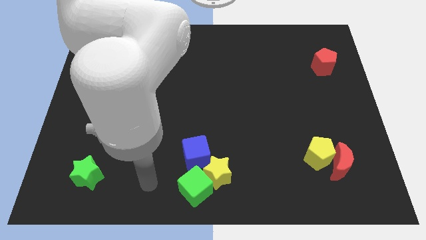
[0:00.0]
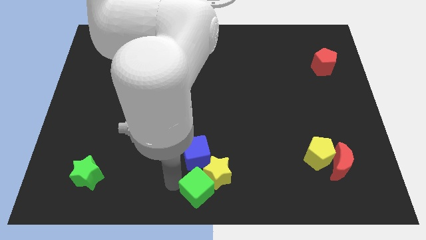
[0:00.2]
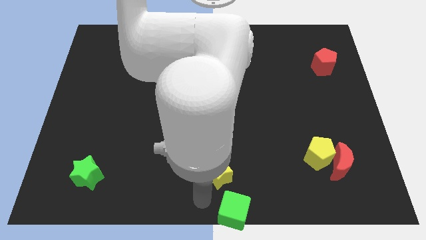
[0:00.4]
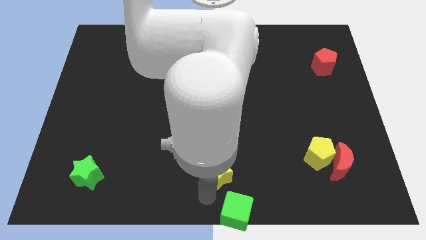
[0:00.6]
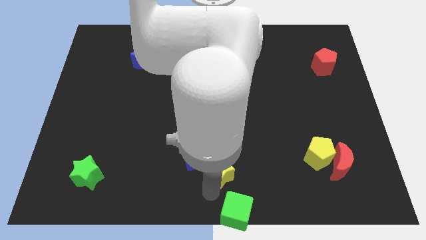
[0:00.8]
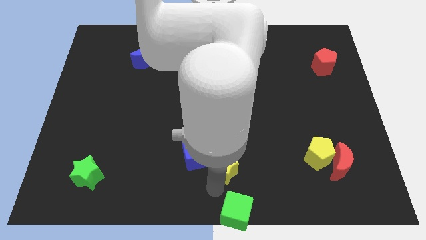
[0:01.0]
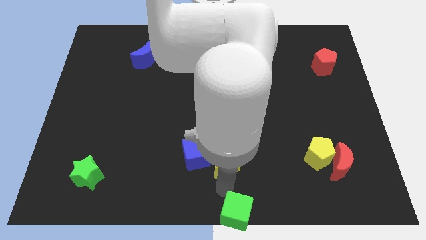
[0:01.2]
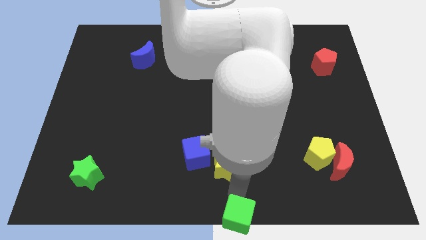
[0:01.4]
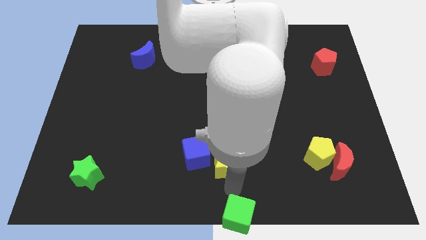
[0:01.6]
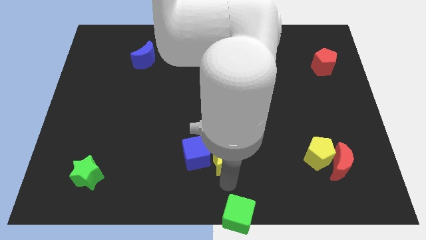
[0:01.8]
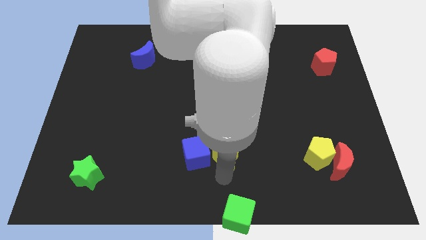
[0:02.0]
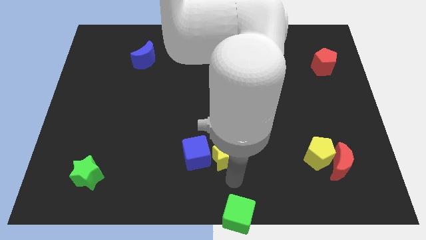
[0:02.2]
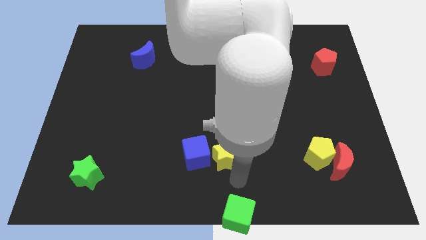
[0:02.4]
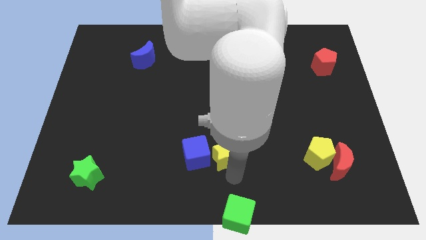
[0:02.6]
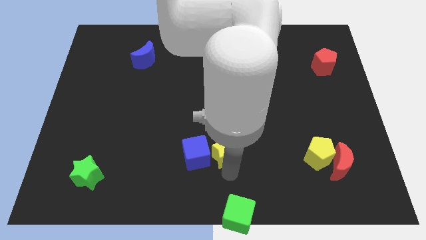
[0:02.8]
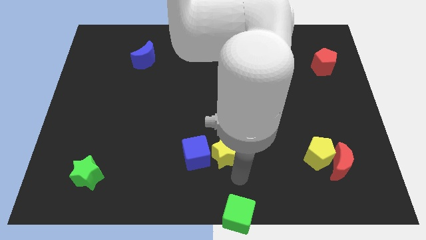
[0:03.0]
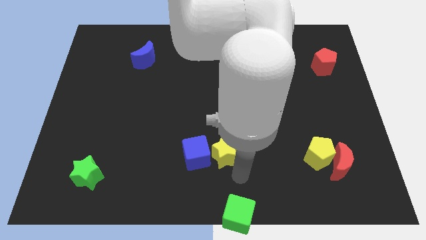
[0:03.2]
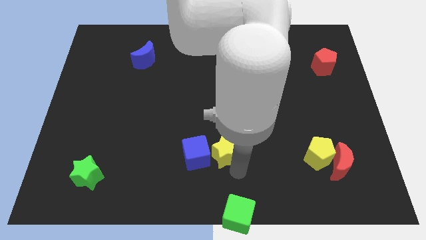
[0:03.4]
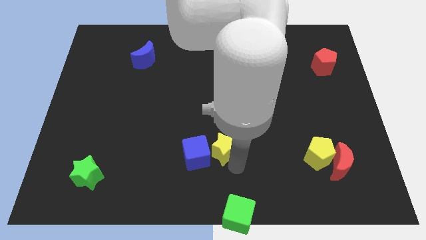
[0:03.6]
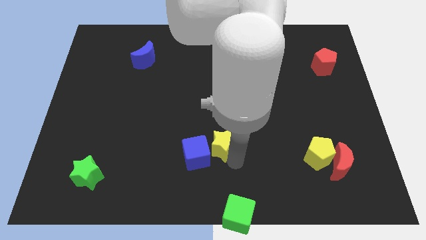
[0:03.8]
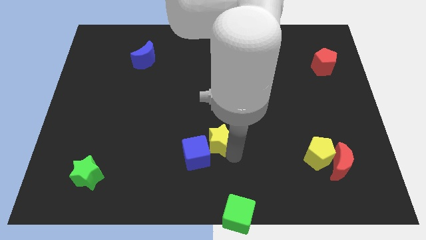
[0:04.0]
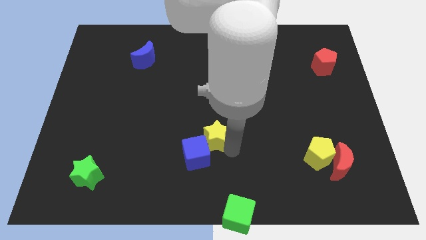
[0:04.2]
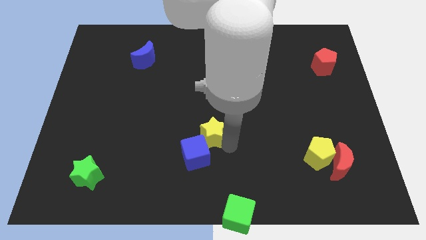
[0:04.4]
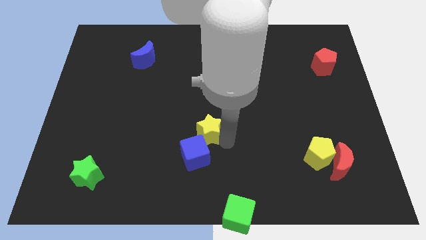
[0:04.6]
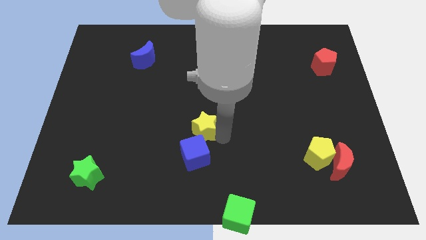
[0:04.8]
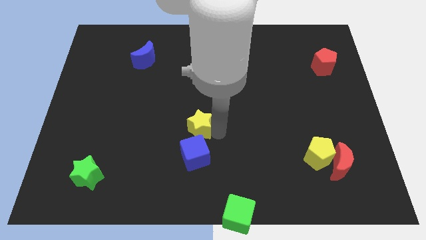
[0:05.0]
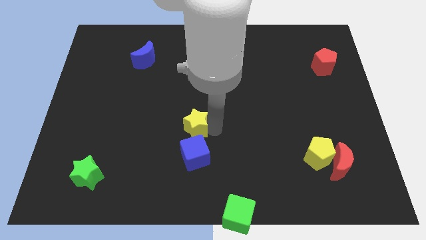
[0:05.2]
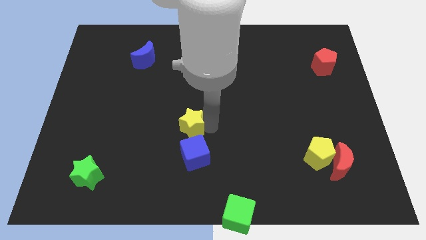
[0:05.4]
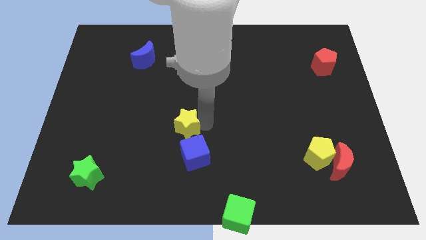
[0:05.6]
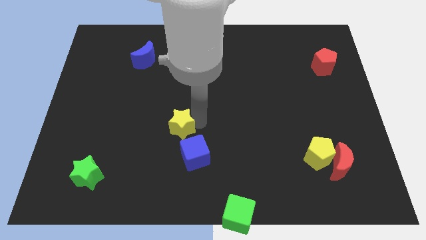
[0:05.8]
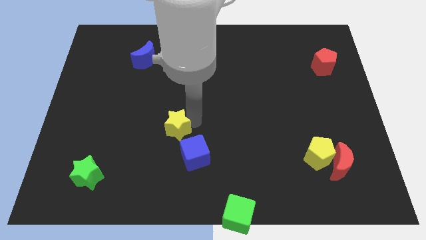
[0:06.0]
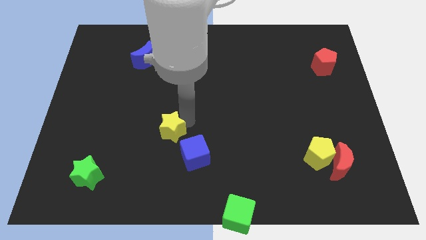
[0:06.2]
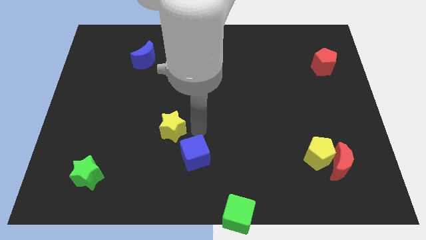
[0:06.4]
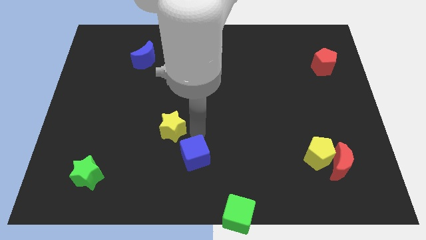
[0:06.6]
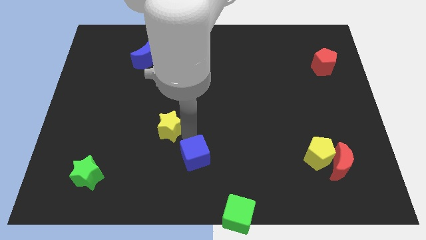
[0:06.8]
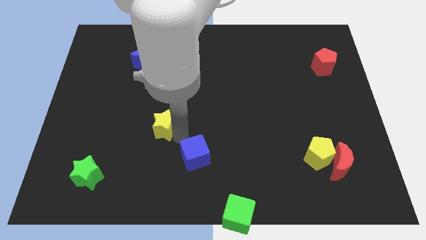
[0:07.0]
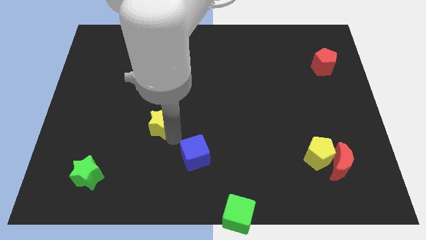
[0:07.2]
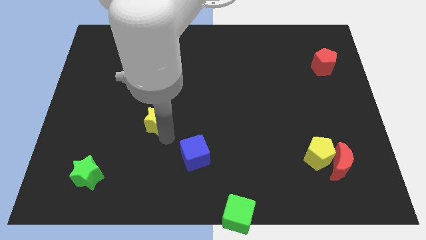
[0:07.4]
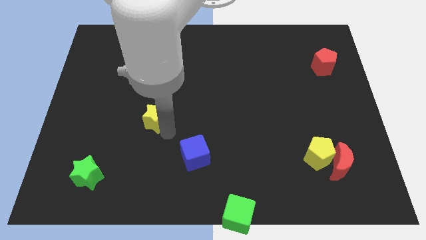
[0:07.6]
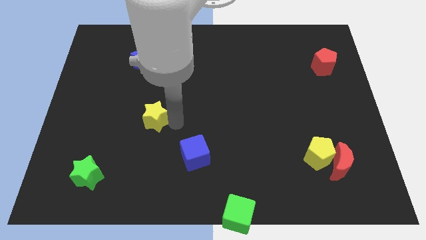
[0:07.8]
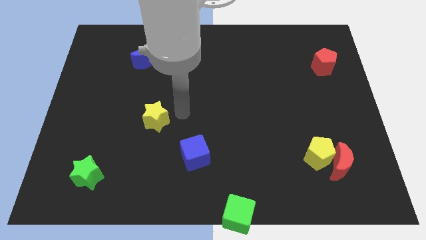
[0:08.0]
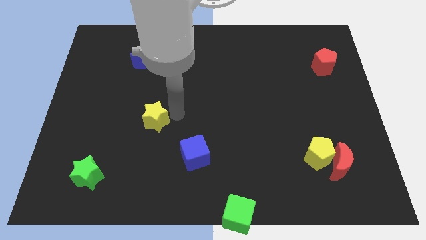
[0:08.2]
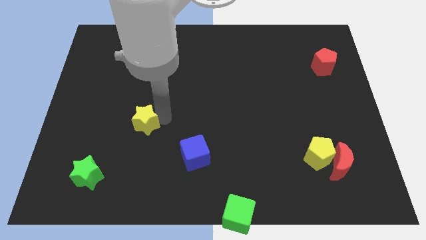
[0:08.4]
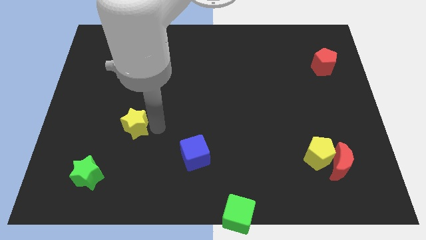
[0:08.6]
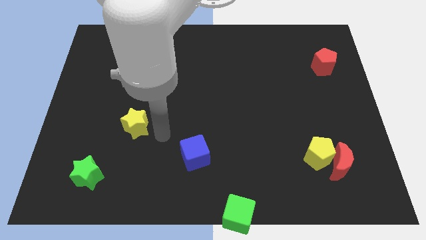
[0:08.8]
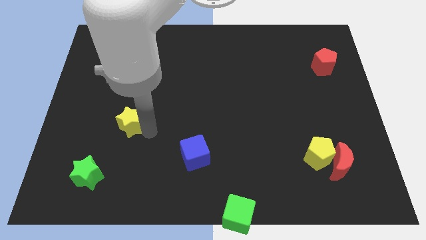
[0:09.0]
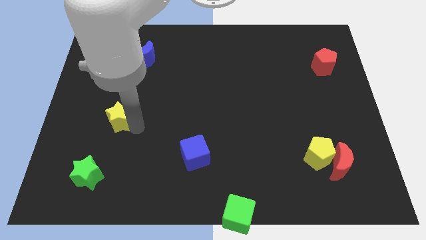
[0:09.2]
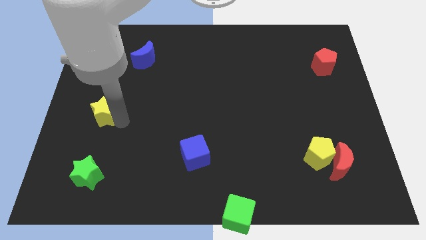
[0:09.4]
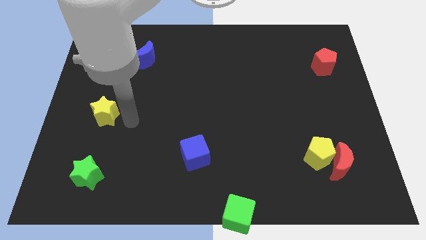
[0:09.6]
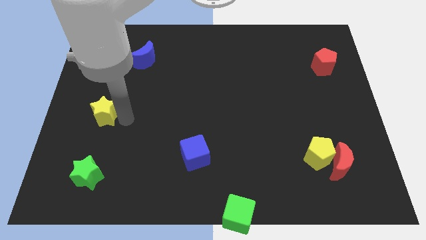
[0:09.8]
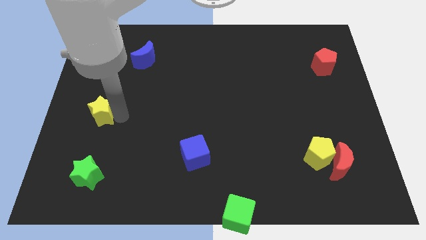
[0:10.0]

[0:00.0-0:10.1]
put the yellow star to the left side

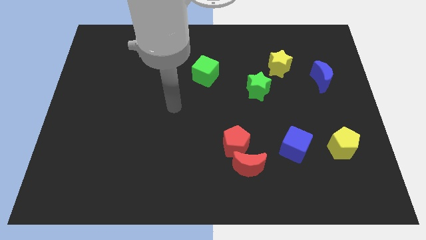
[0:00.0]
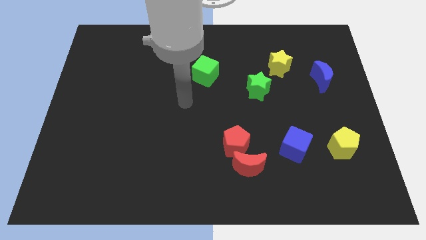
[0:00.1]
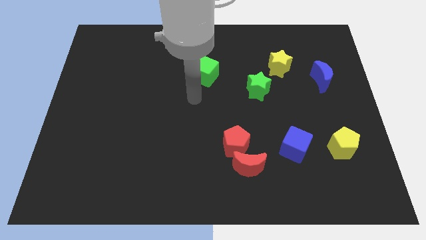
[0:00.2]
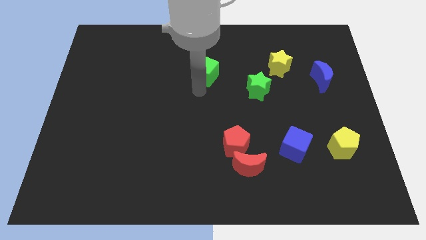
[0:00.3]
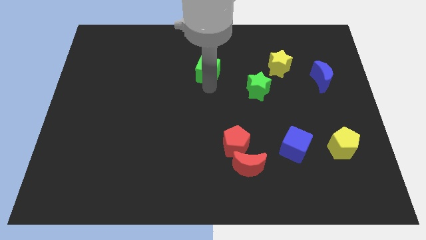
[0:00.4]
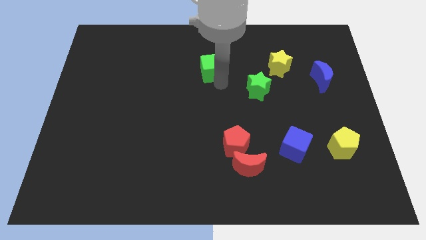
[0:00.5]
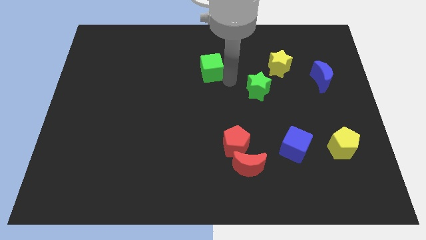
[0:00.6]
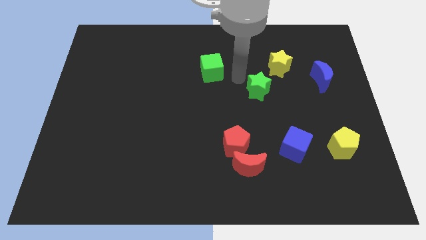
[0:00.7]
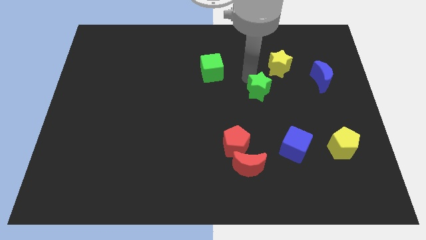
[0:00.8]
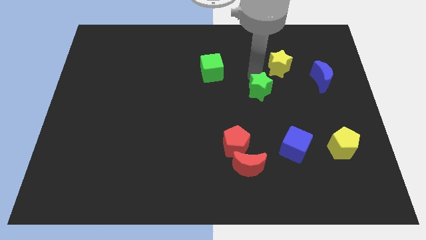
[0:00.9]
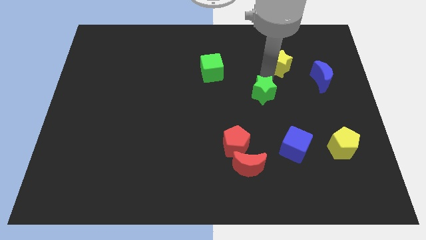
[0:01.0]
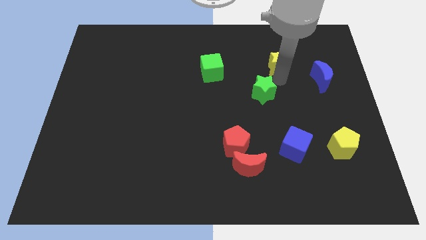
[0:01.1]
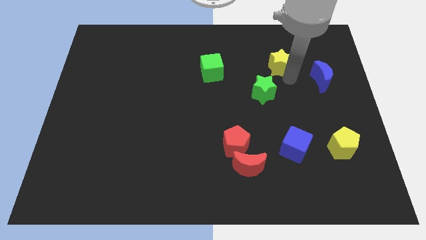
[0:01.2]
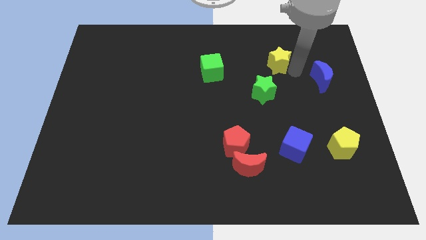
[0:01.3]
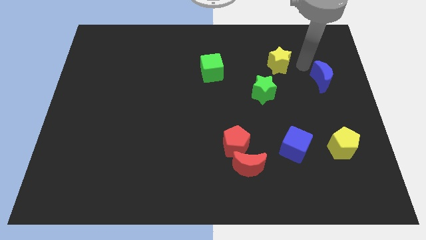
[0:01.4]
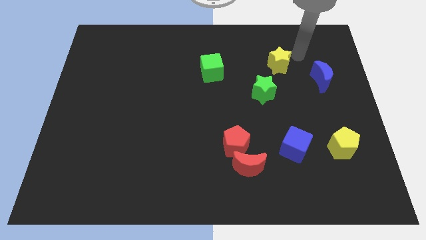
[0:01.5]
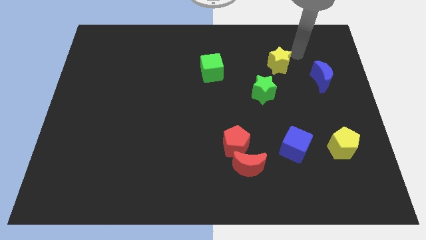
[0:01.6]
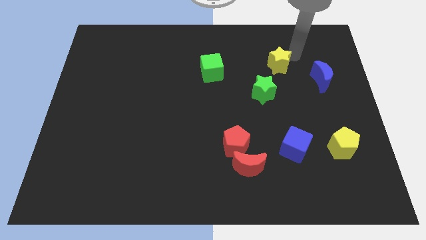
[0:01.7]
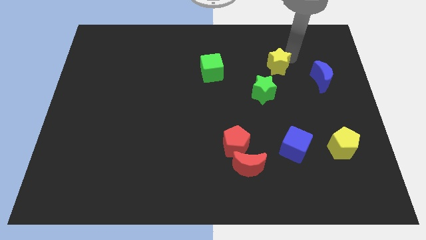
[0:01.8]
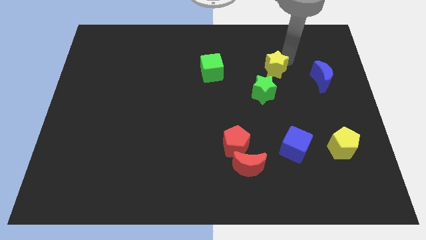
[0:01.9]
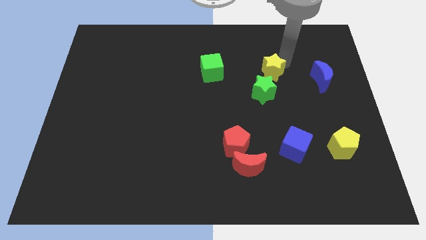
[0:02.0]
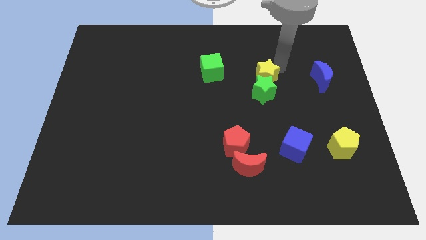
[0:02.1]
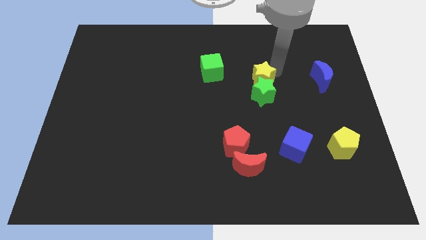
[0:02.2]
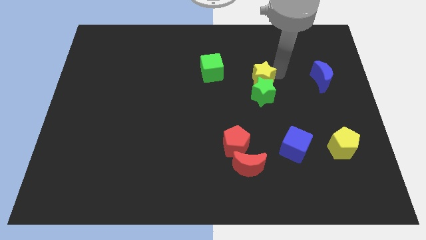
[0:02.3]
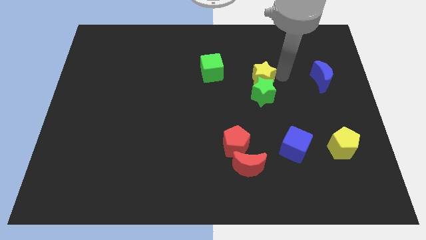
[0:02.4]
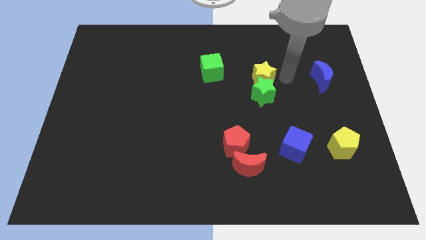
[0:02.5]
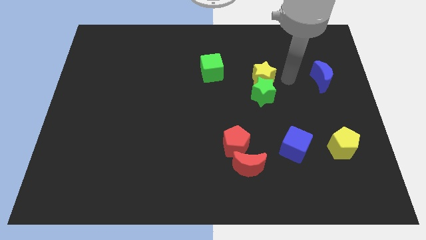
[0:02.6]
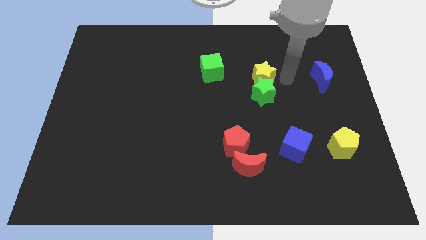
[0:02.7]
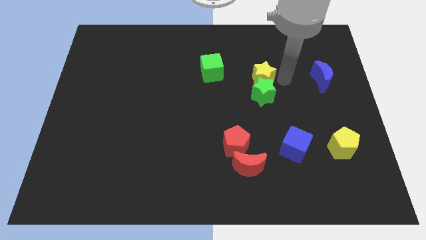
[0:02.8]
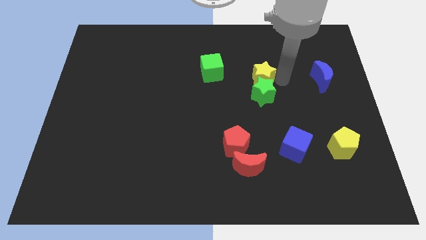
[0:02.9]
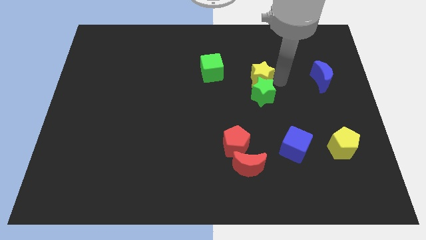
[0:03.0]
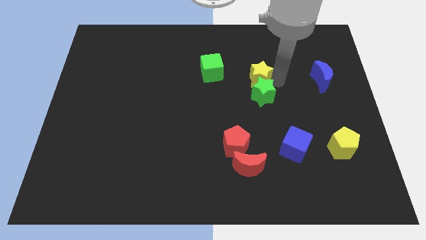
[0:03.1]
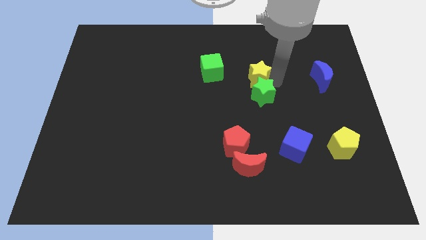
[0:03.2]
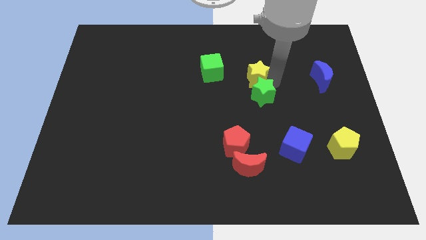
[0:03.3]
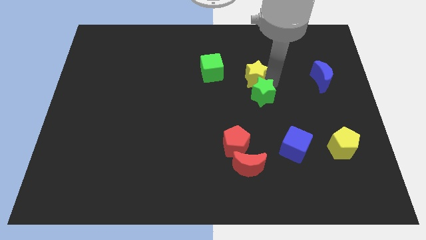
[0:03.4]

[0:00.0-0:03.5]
slide the yellow star to the middle of the board
